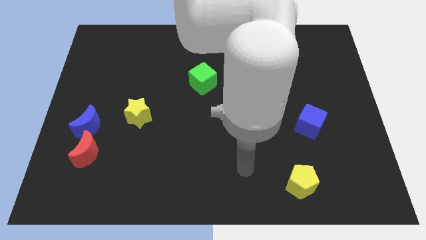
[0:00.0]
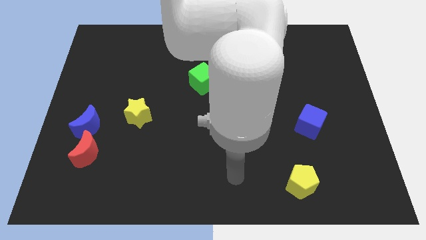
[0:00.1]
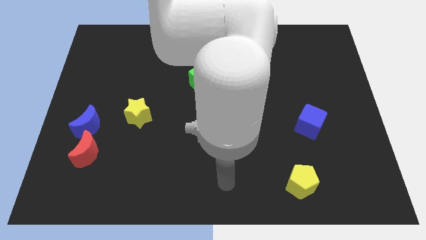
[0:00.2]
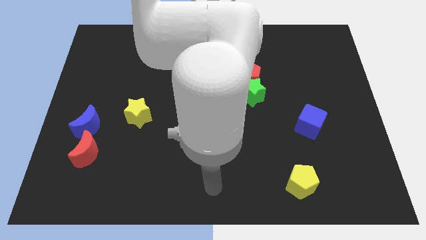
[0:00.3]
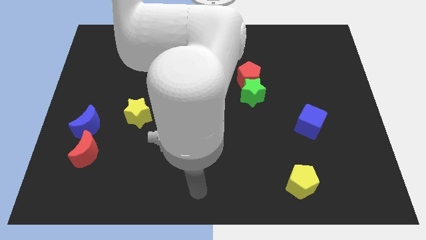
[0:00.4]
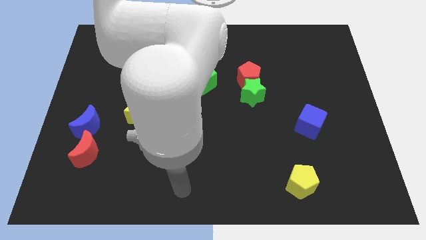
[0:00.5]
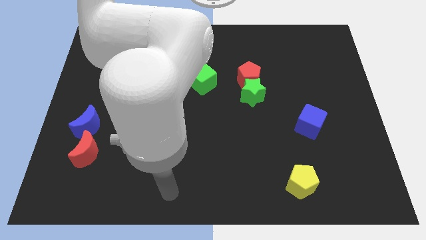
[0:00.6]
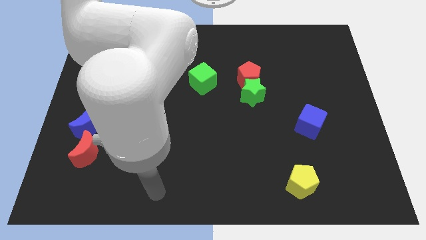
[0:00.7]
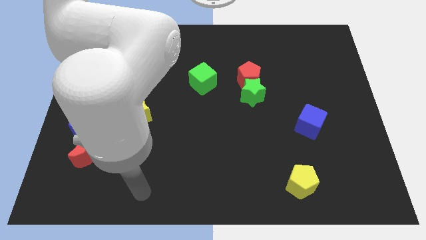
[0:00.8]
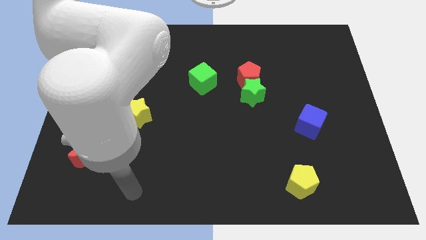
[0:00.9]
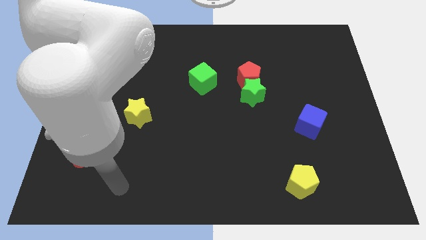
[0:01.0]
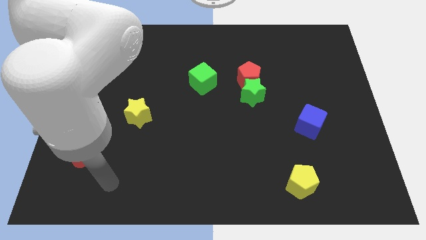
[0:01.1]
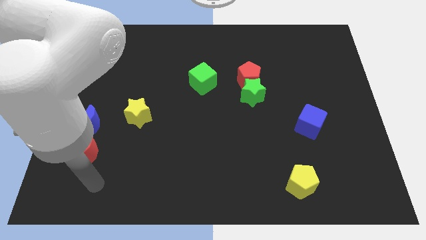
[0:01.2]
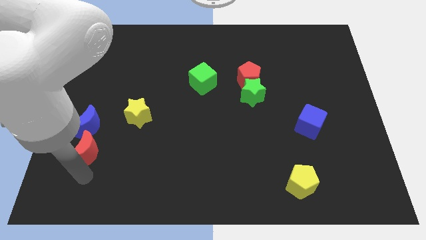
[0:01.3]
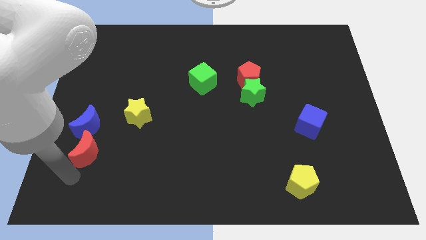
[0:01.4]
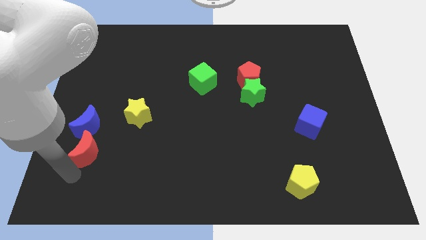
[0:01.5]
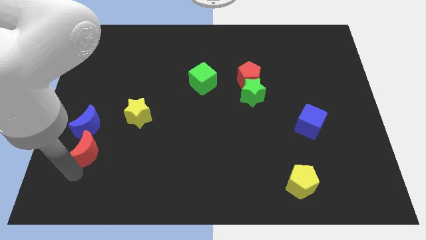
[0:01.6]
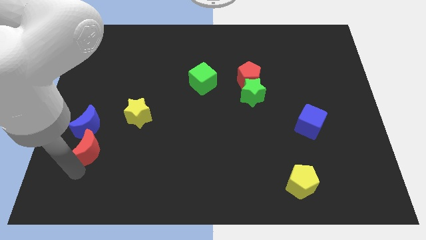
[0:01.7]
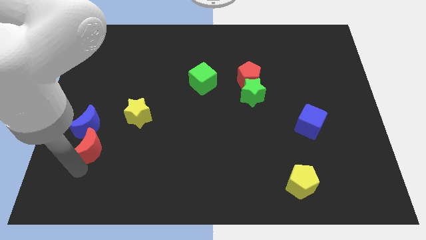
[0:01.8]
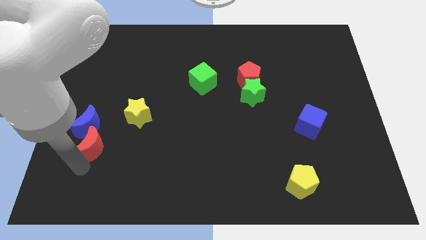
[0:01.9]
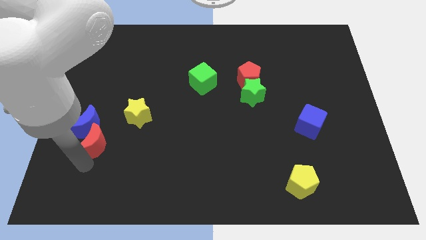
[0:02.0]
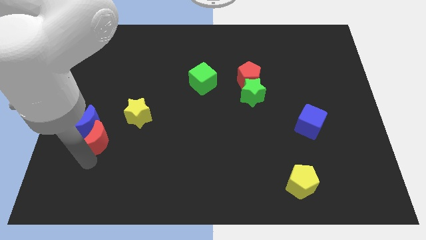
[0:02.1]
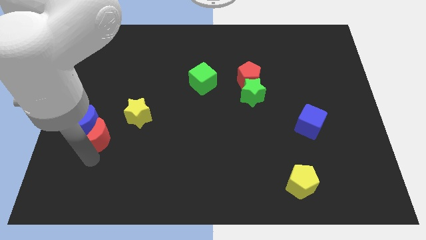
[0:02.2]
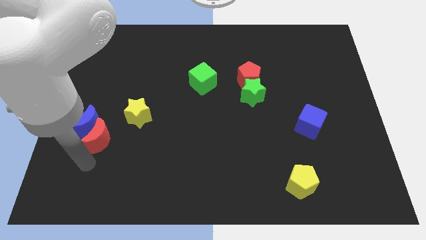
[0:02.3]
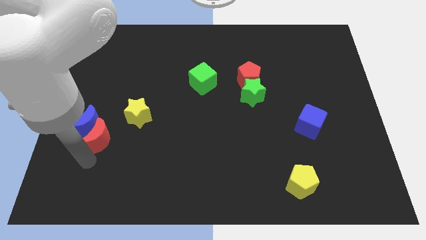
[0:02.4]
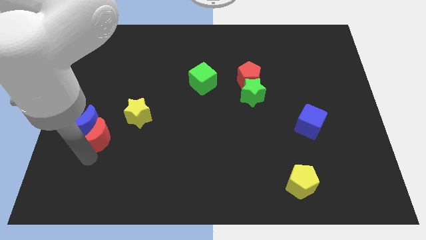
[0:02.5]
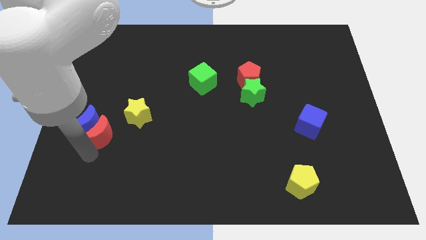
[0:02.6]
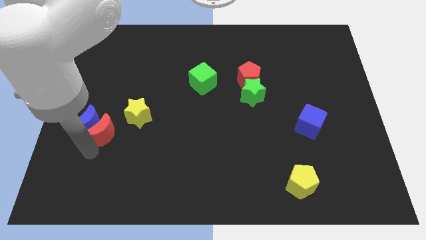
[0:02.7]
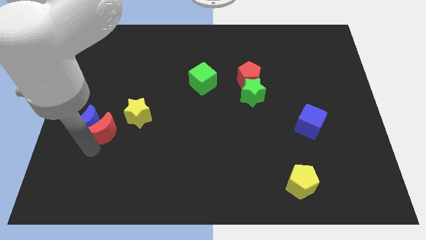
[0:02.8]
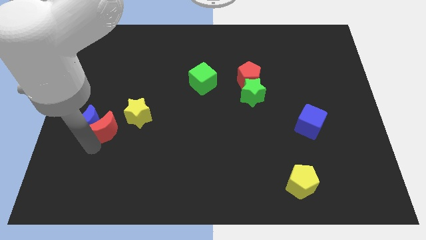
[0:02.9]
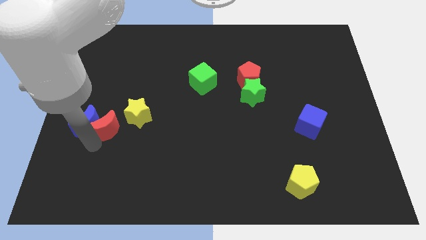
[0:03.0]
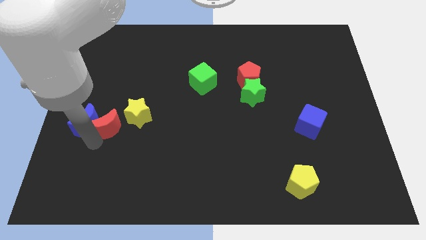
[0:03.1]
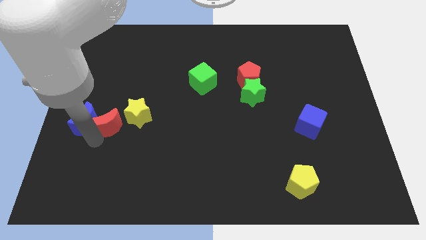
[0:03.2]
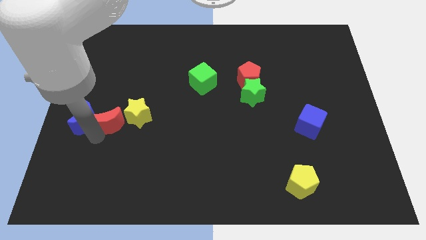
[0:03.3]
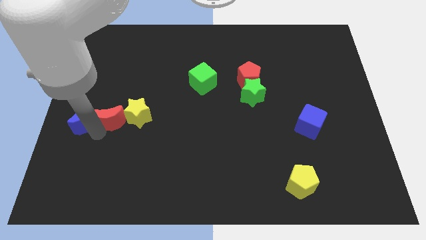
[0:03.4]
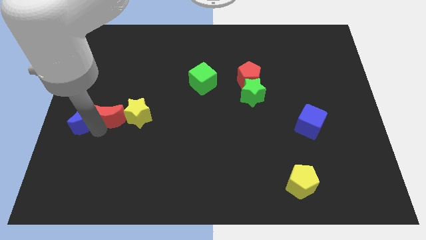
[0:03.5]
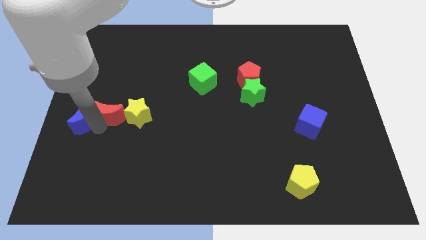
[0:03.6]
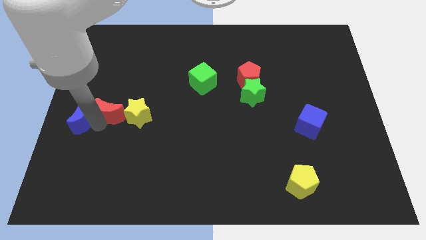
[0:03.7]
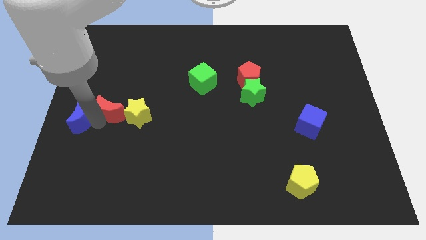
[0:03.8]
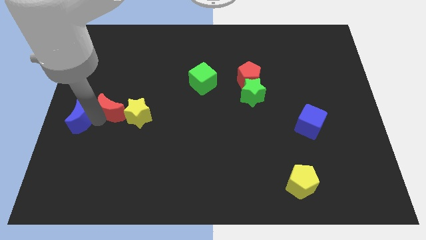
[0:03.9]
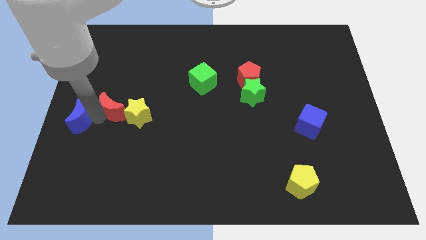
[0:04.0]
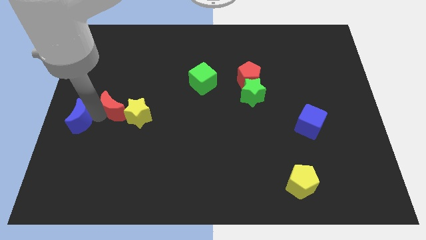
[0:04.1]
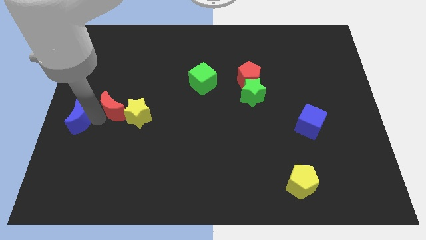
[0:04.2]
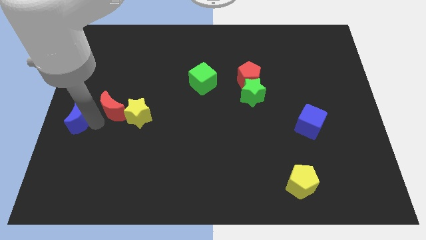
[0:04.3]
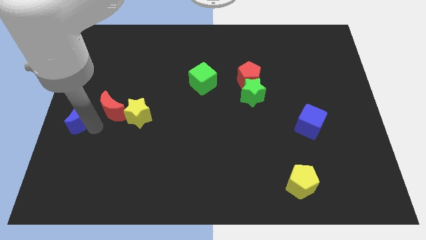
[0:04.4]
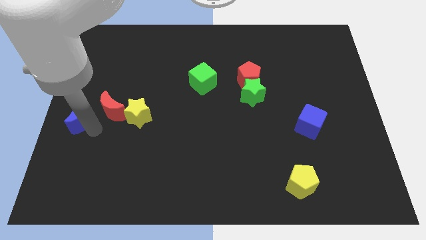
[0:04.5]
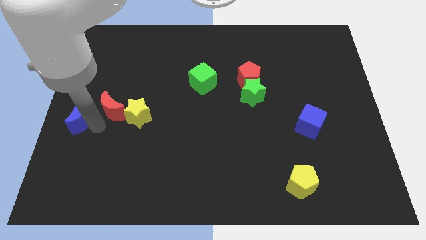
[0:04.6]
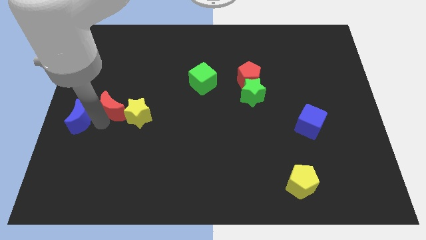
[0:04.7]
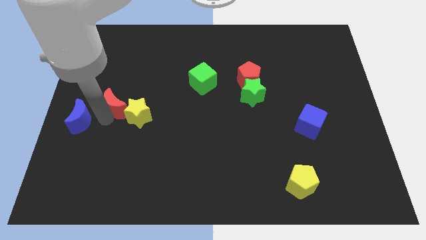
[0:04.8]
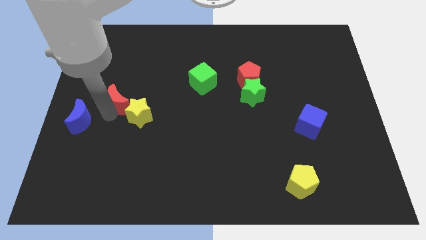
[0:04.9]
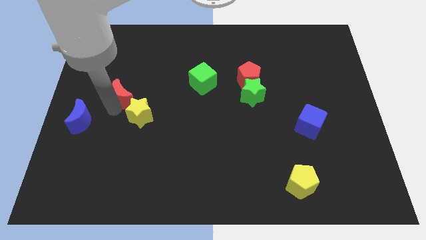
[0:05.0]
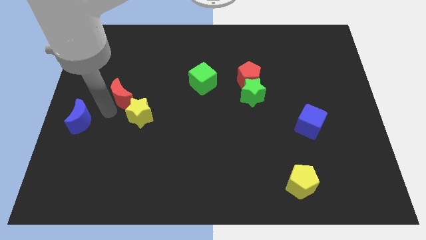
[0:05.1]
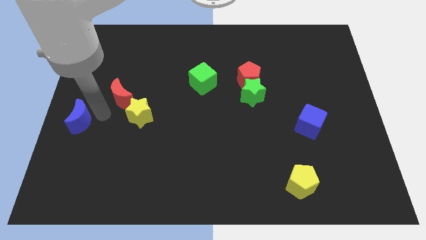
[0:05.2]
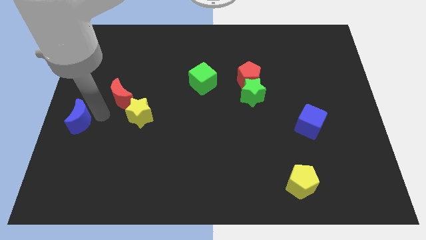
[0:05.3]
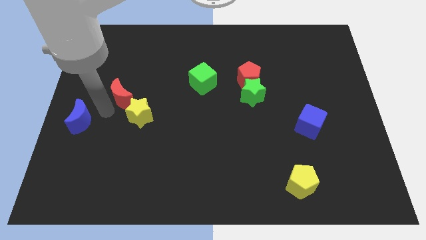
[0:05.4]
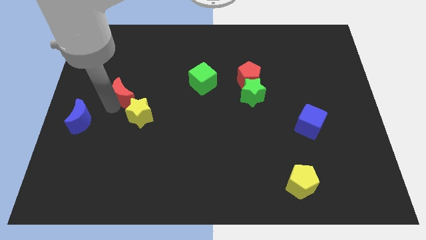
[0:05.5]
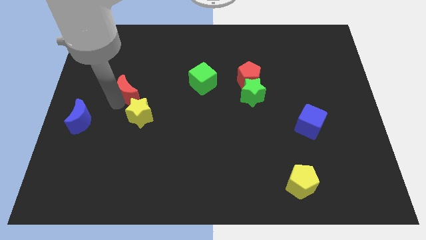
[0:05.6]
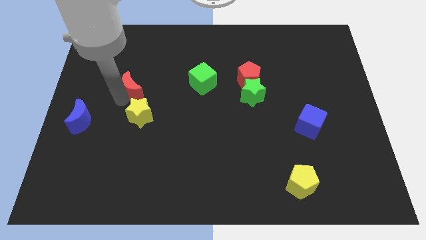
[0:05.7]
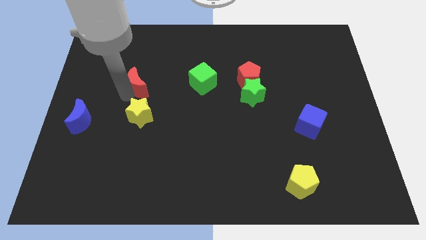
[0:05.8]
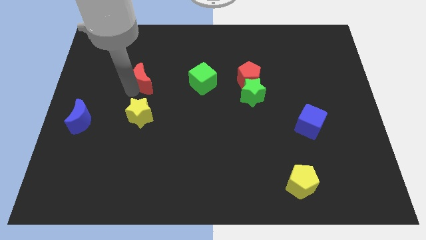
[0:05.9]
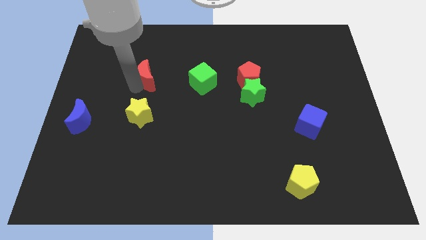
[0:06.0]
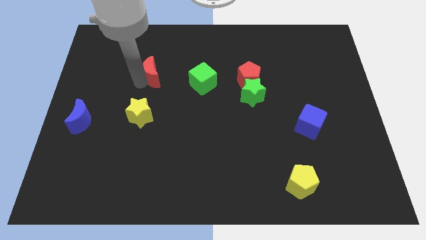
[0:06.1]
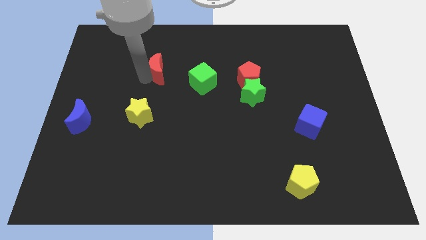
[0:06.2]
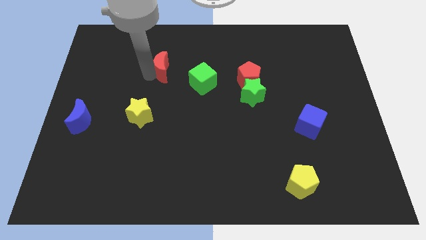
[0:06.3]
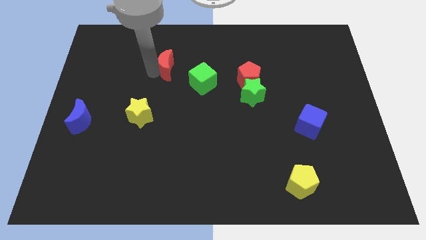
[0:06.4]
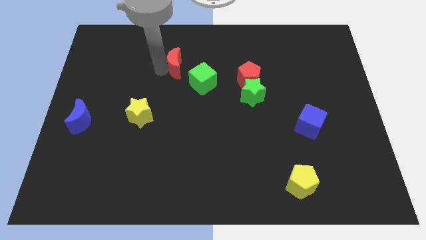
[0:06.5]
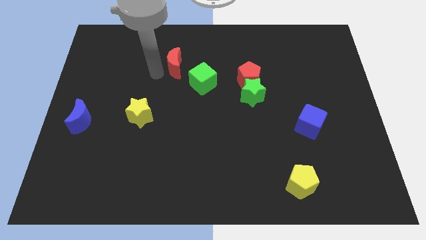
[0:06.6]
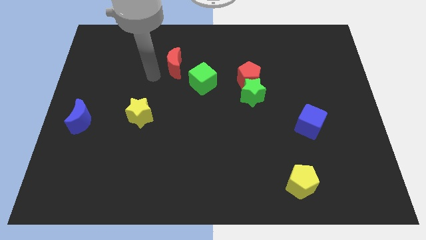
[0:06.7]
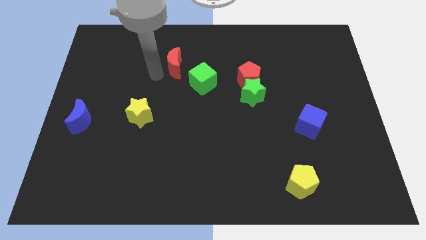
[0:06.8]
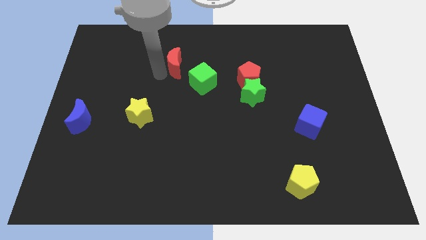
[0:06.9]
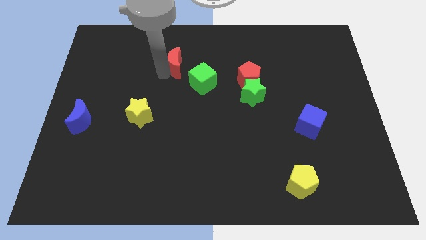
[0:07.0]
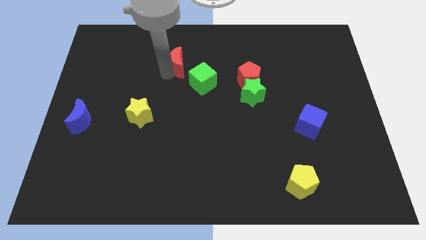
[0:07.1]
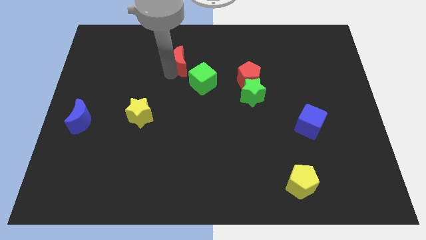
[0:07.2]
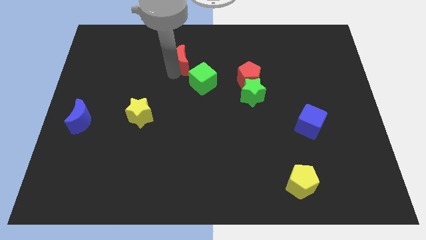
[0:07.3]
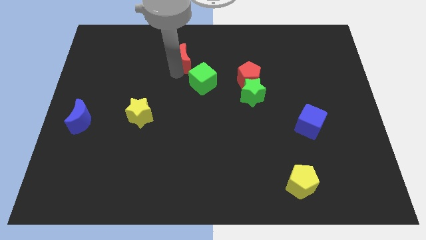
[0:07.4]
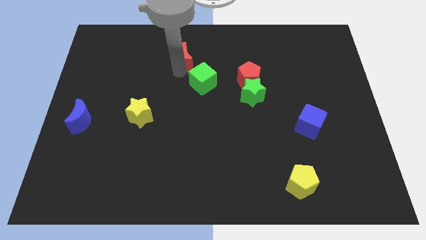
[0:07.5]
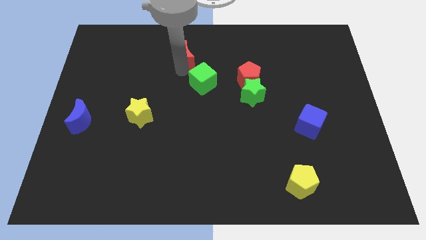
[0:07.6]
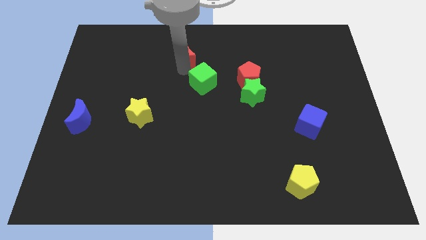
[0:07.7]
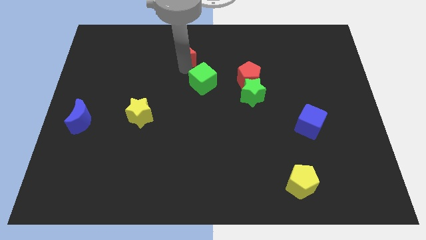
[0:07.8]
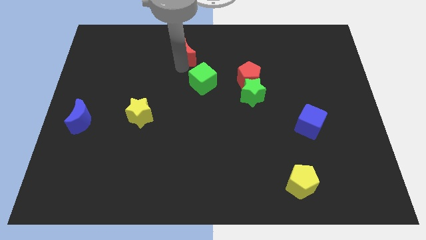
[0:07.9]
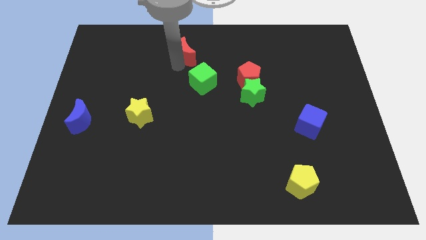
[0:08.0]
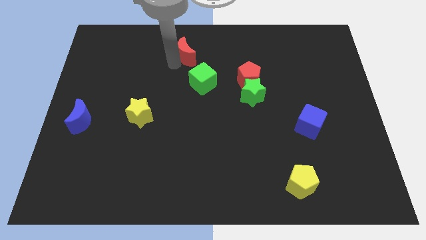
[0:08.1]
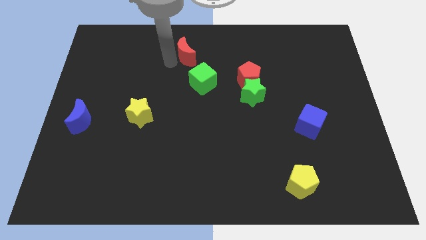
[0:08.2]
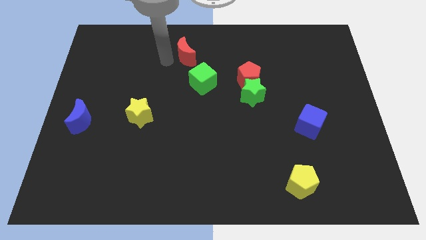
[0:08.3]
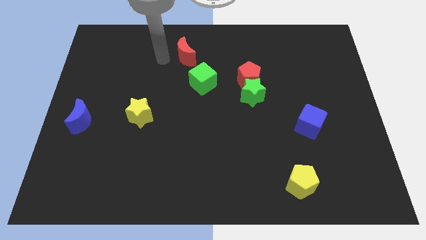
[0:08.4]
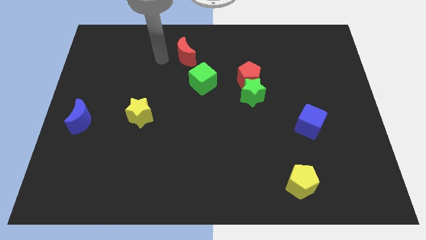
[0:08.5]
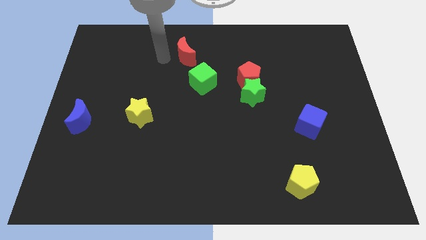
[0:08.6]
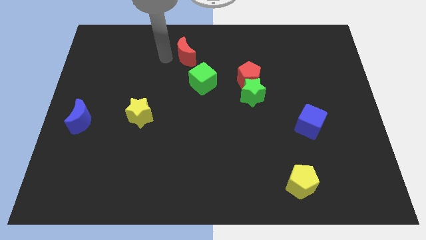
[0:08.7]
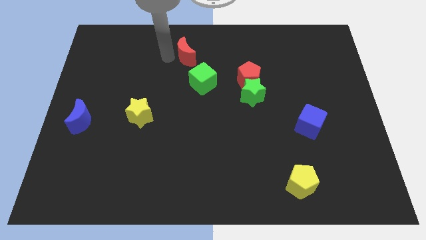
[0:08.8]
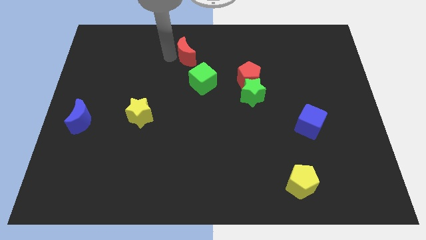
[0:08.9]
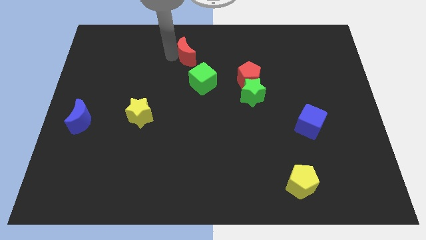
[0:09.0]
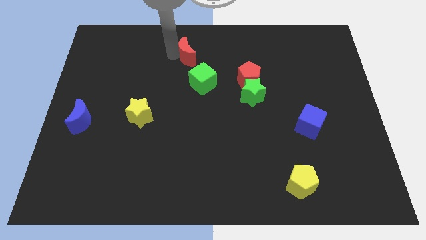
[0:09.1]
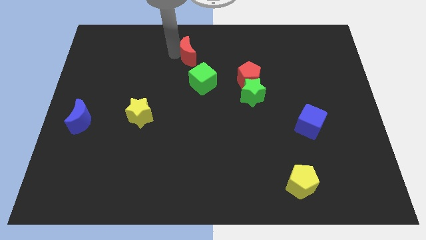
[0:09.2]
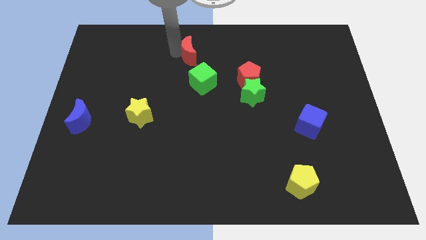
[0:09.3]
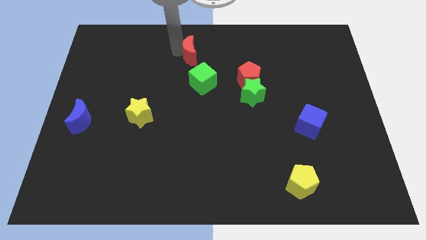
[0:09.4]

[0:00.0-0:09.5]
slide the red moon to the top side
